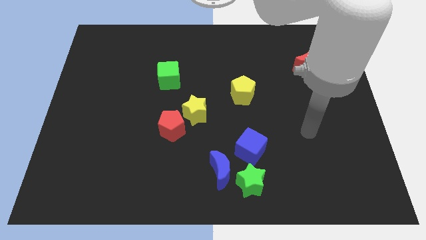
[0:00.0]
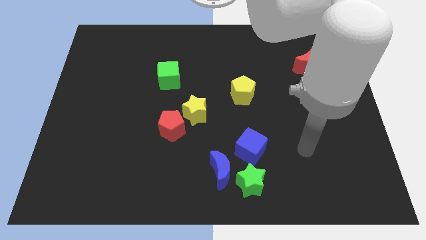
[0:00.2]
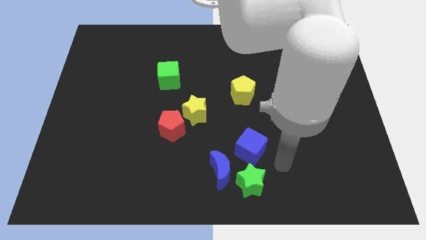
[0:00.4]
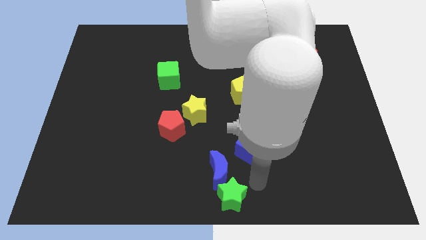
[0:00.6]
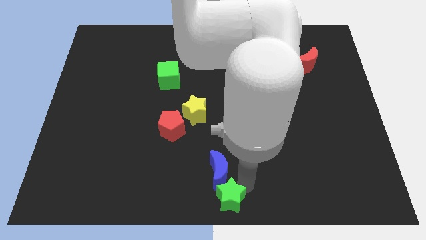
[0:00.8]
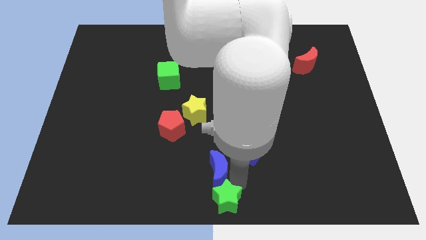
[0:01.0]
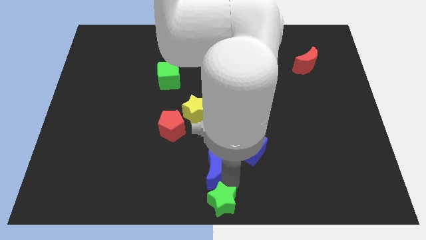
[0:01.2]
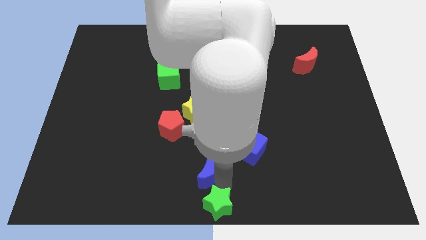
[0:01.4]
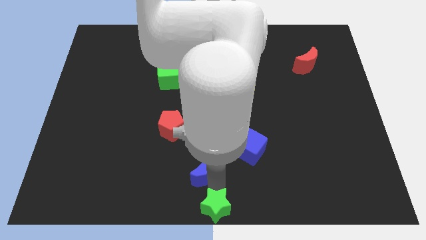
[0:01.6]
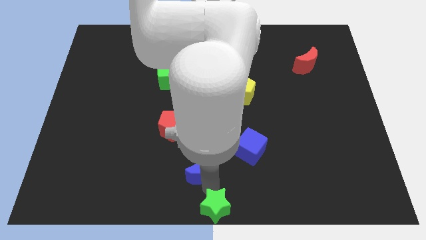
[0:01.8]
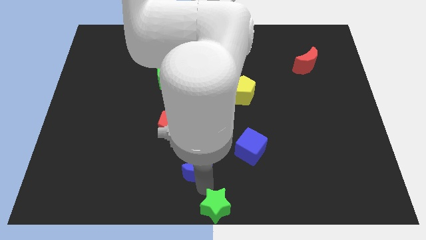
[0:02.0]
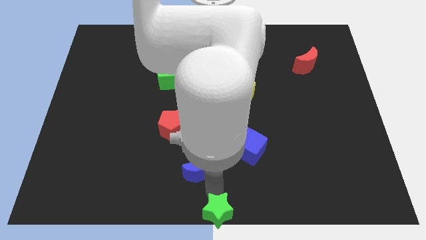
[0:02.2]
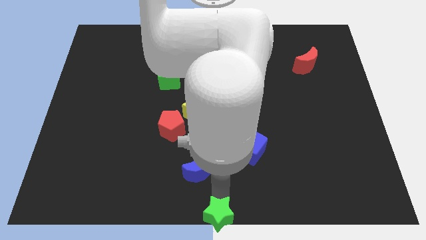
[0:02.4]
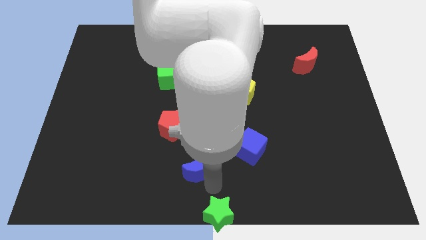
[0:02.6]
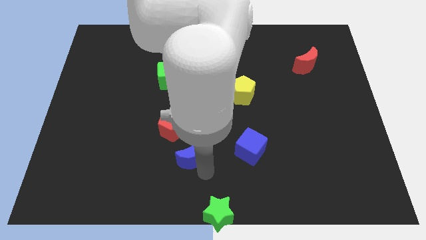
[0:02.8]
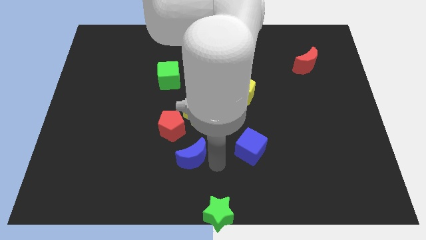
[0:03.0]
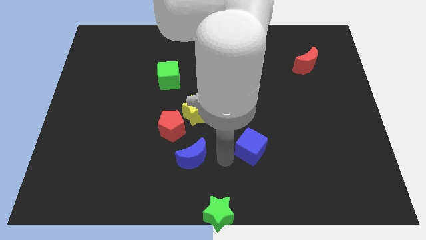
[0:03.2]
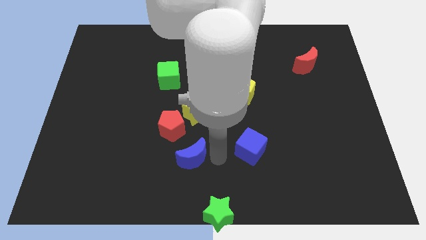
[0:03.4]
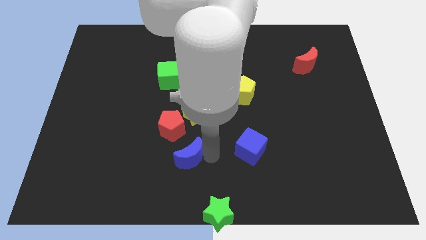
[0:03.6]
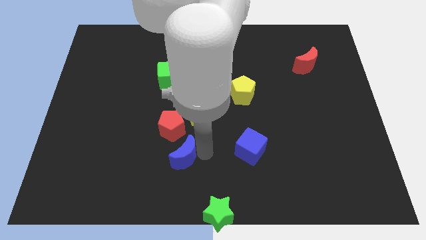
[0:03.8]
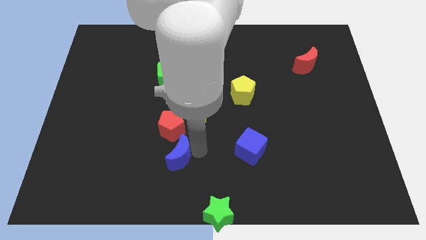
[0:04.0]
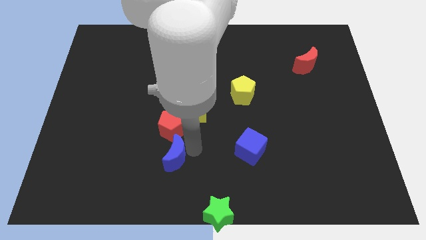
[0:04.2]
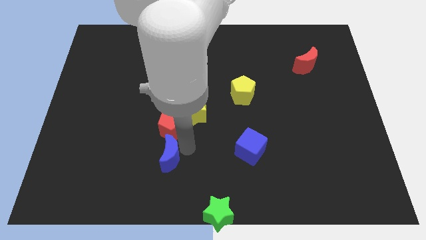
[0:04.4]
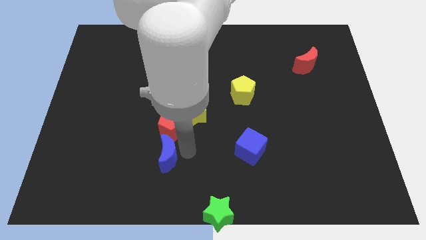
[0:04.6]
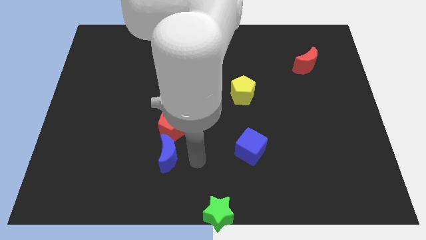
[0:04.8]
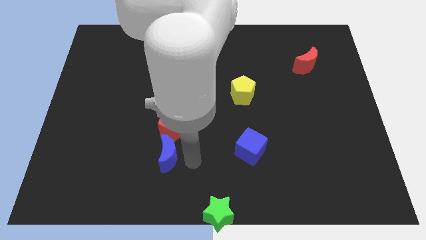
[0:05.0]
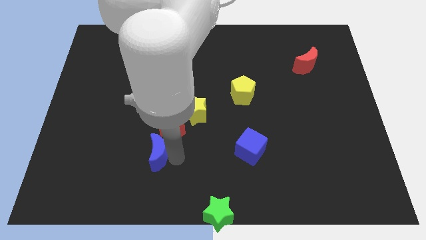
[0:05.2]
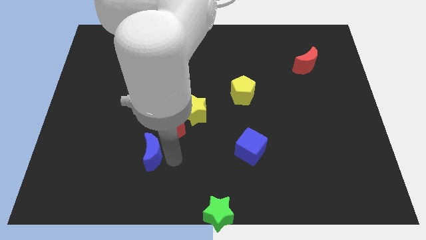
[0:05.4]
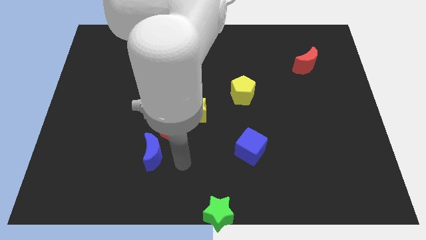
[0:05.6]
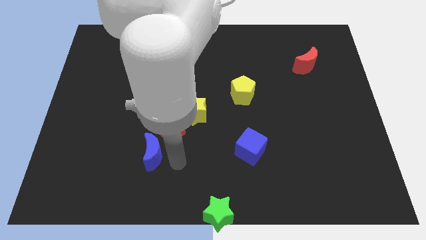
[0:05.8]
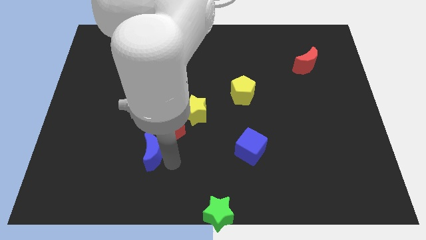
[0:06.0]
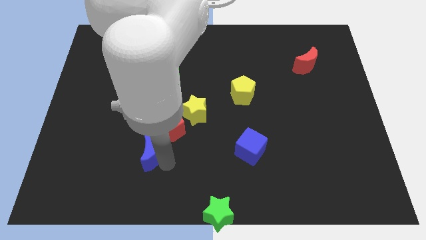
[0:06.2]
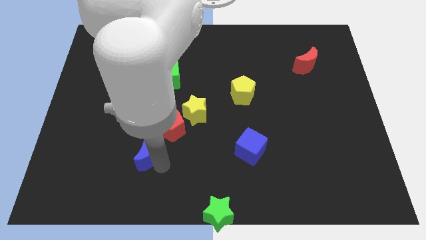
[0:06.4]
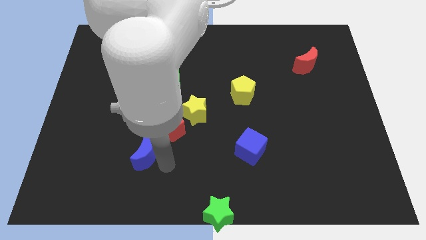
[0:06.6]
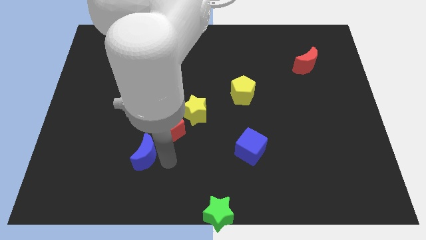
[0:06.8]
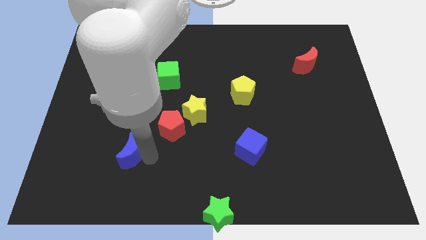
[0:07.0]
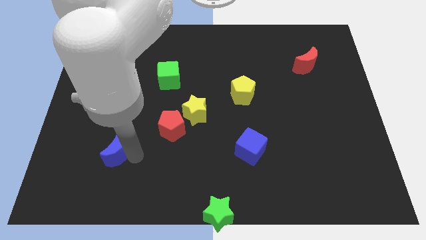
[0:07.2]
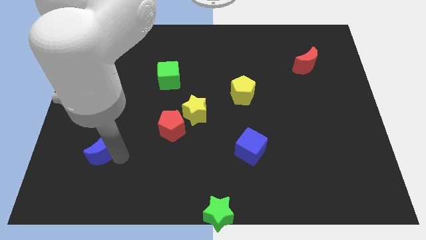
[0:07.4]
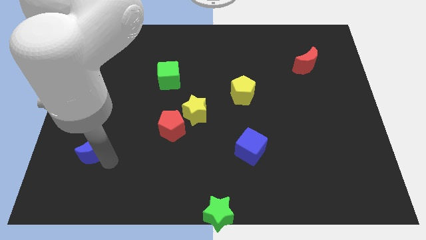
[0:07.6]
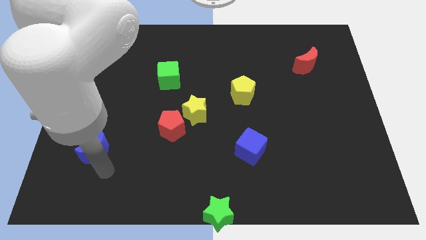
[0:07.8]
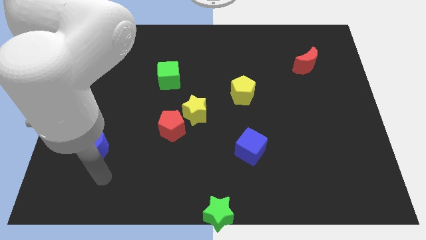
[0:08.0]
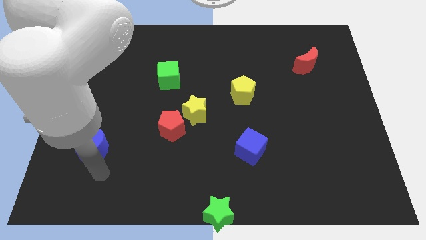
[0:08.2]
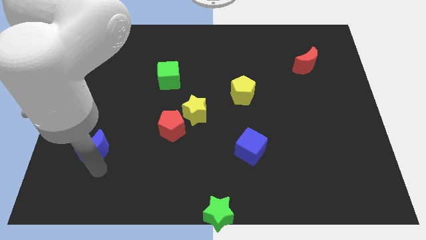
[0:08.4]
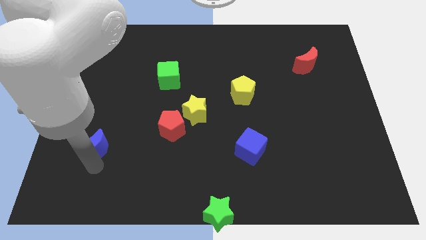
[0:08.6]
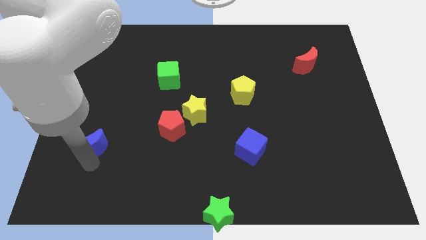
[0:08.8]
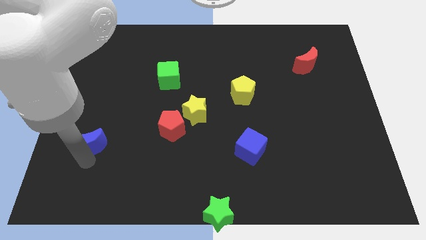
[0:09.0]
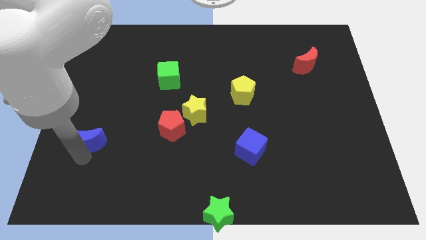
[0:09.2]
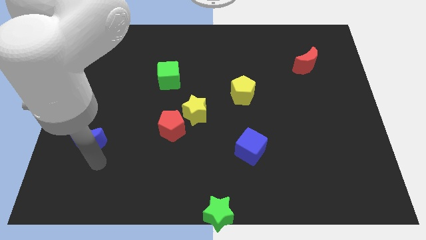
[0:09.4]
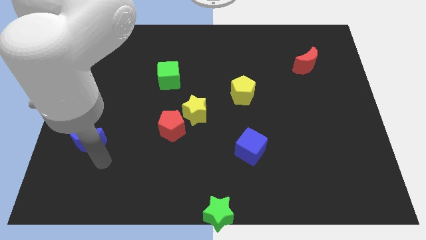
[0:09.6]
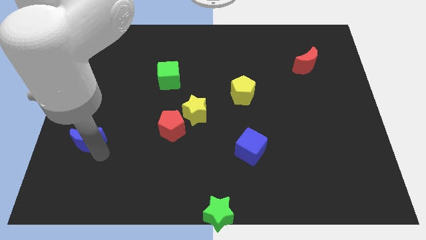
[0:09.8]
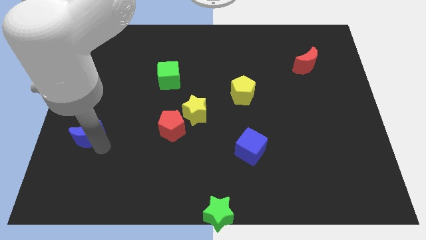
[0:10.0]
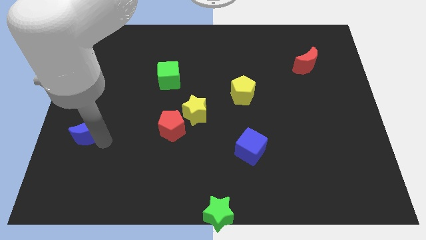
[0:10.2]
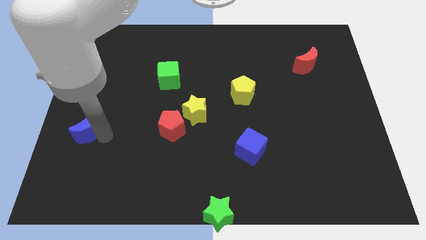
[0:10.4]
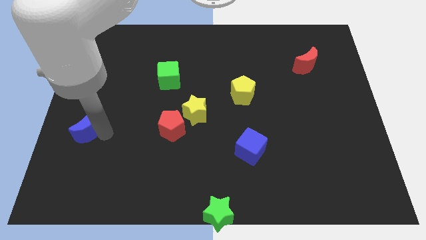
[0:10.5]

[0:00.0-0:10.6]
push the blue moon to the left side

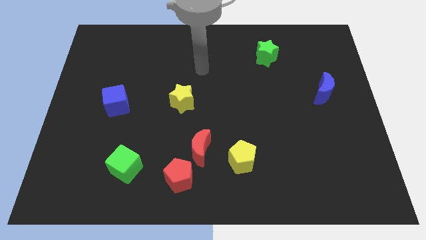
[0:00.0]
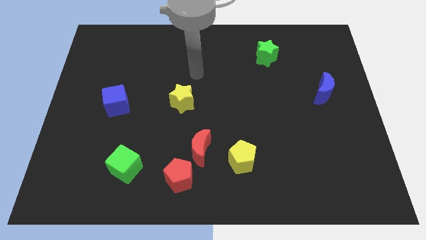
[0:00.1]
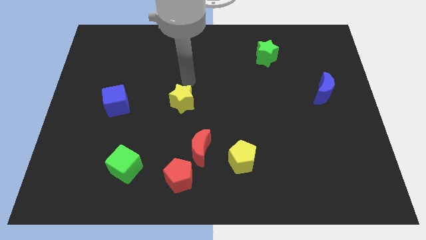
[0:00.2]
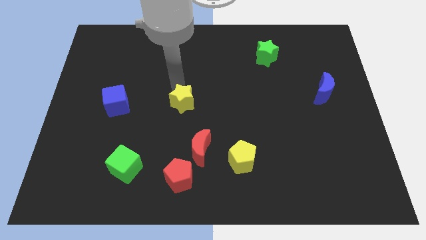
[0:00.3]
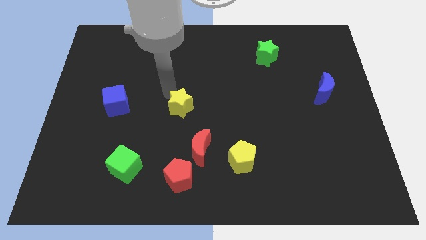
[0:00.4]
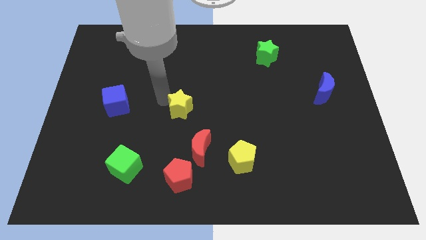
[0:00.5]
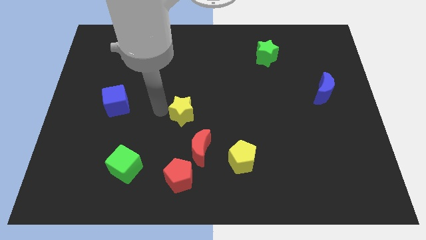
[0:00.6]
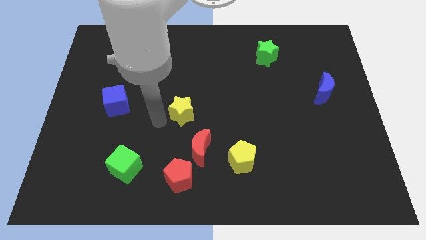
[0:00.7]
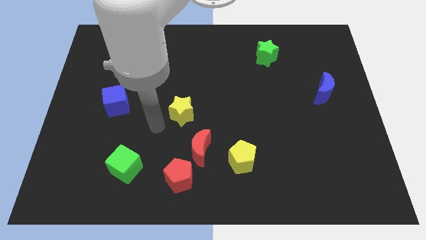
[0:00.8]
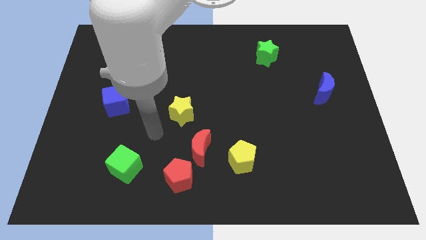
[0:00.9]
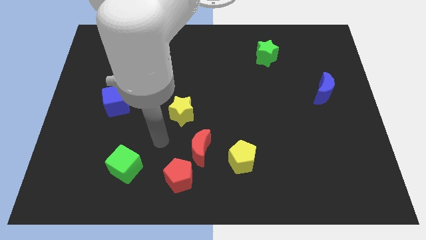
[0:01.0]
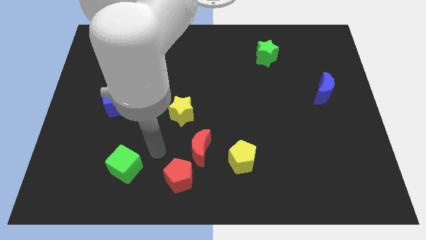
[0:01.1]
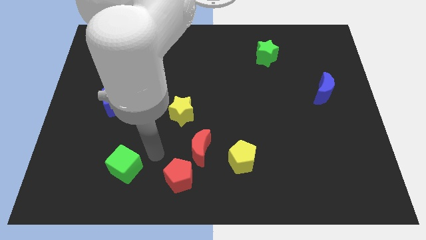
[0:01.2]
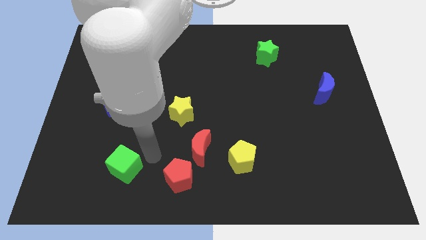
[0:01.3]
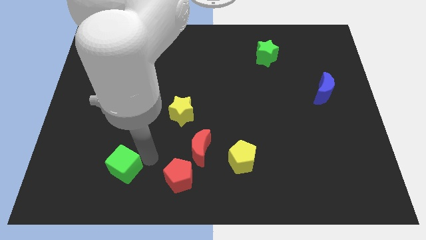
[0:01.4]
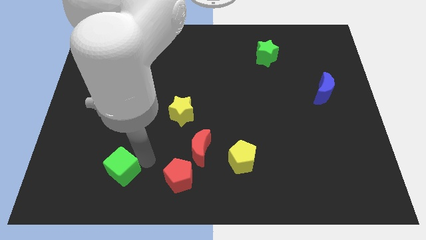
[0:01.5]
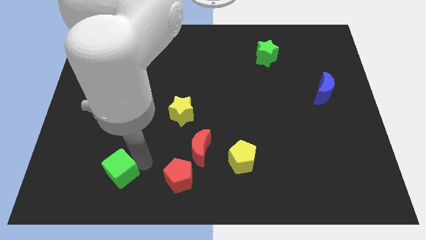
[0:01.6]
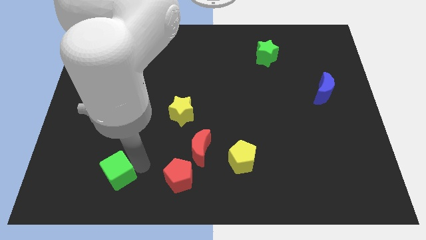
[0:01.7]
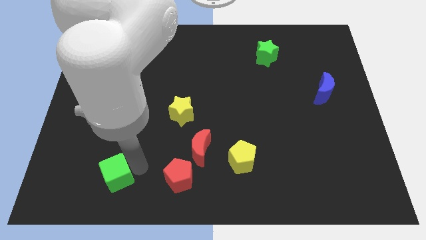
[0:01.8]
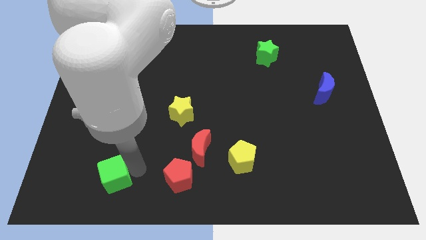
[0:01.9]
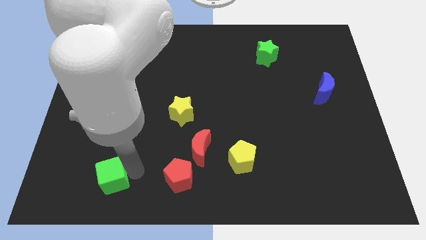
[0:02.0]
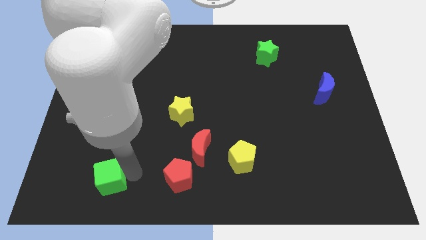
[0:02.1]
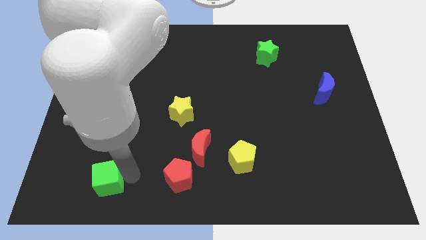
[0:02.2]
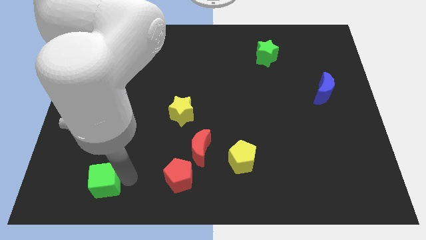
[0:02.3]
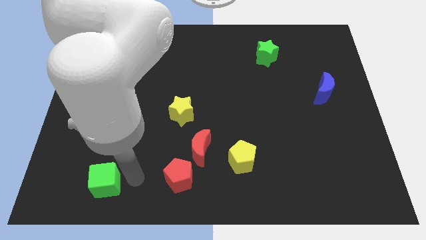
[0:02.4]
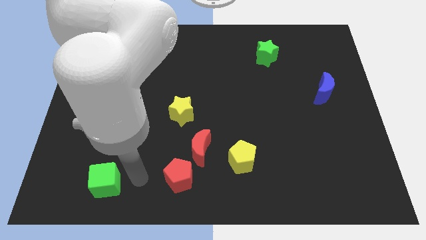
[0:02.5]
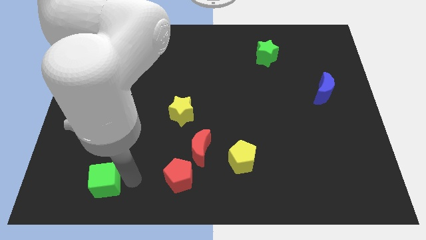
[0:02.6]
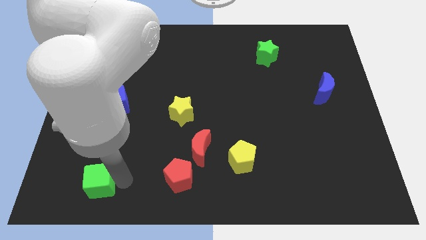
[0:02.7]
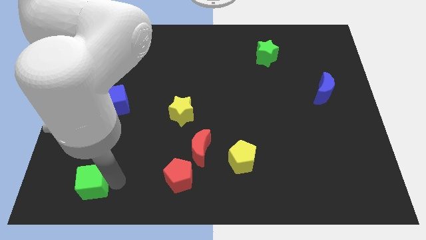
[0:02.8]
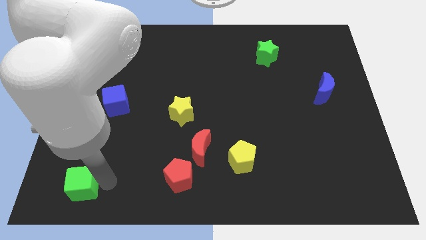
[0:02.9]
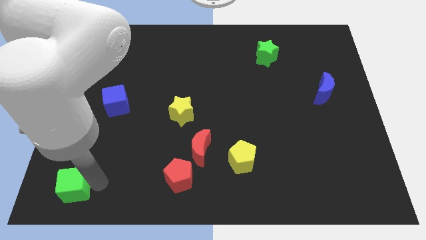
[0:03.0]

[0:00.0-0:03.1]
move the green cube to the bottom left of the board
